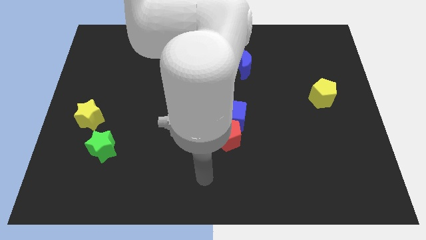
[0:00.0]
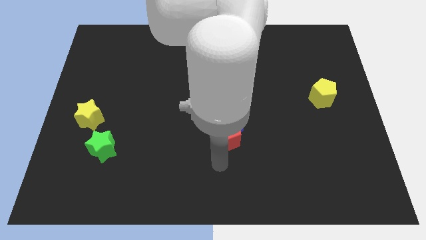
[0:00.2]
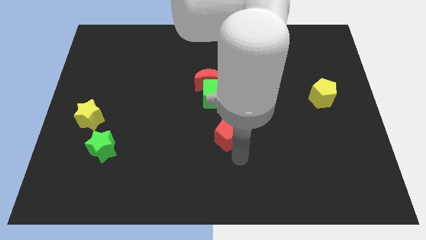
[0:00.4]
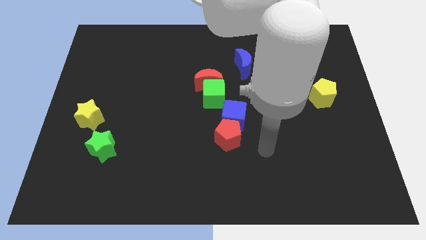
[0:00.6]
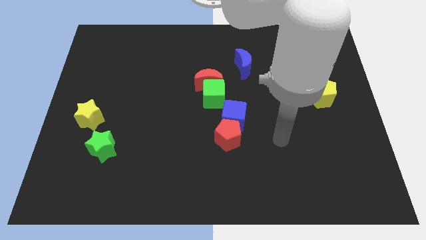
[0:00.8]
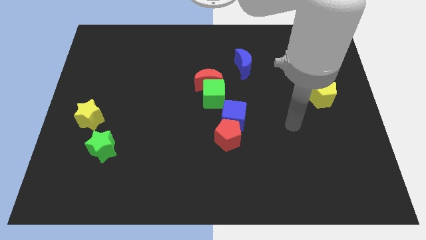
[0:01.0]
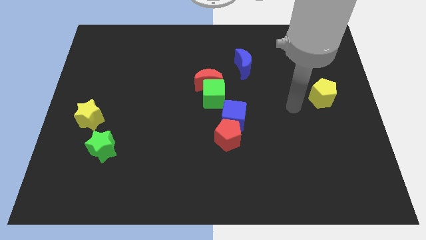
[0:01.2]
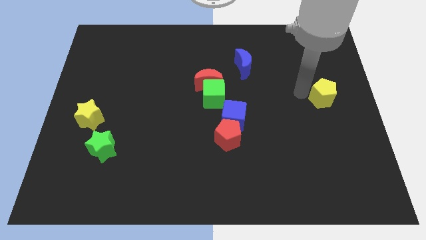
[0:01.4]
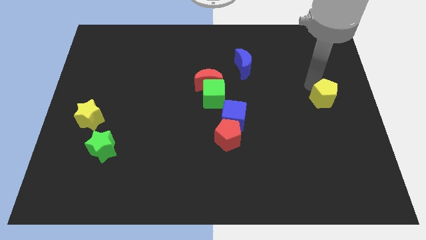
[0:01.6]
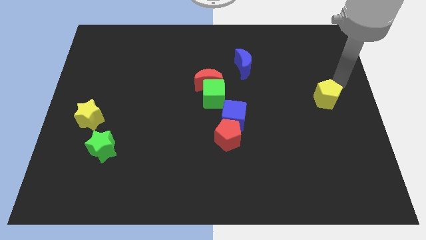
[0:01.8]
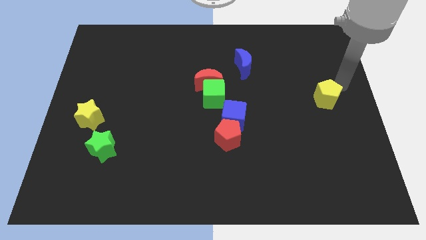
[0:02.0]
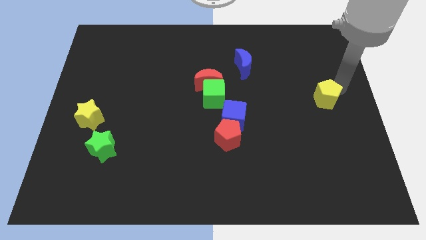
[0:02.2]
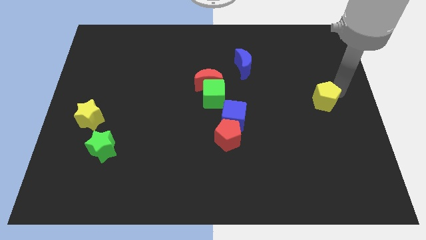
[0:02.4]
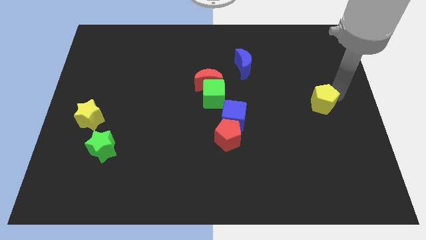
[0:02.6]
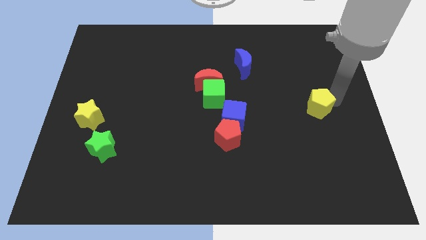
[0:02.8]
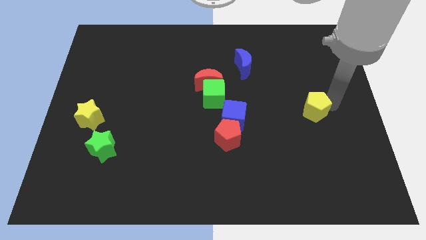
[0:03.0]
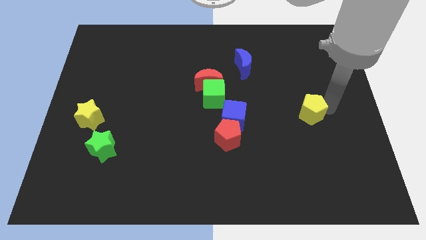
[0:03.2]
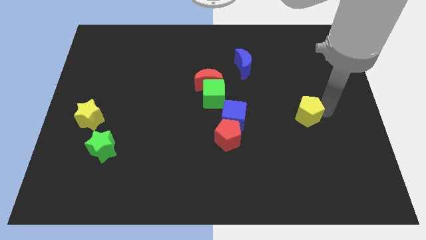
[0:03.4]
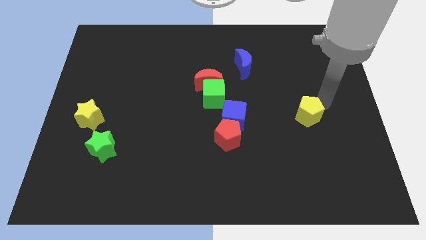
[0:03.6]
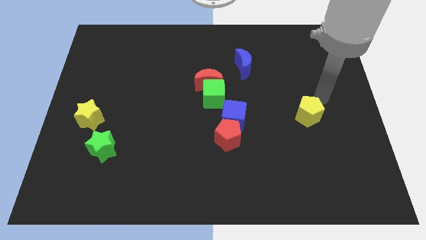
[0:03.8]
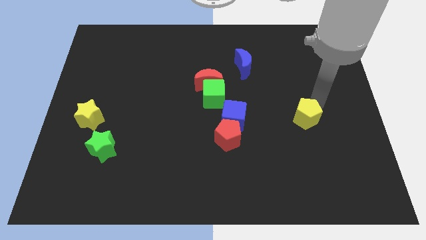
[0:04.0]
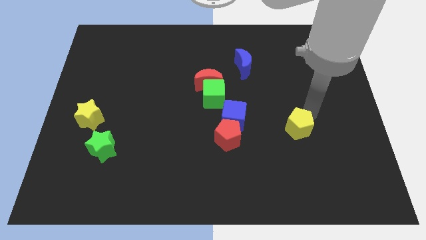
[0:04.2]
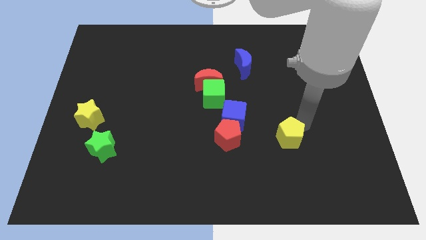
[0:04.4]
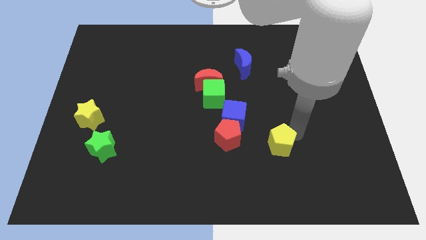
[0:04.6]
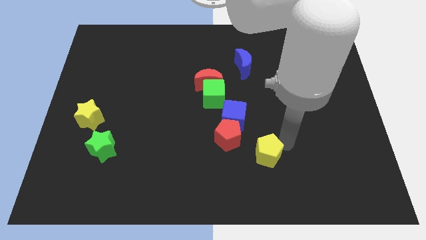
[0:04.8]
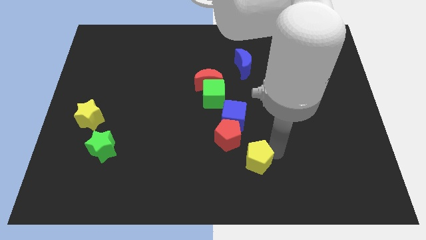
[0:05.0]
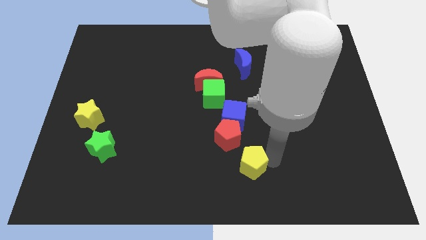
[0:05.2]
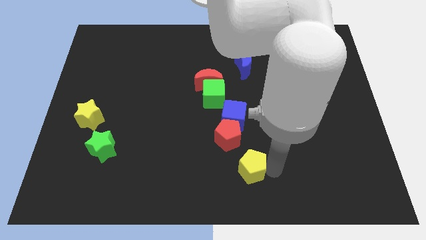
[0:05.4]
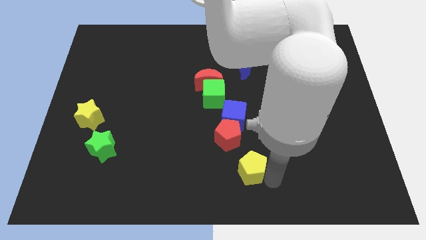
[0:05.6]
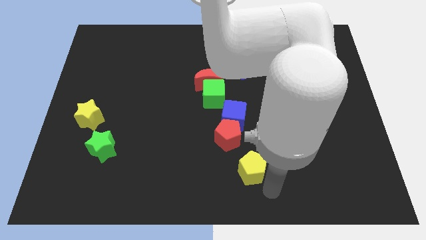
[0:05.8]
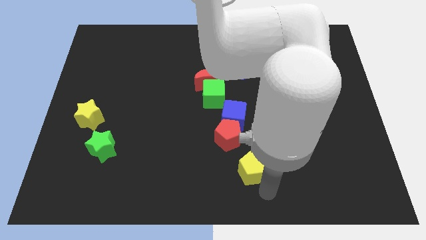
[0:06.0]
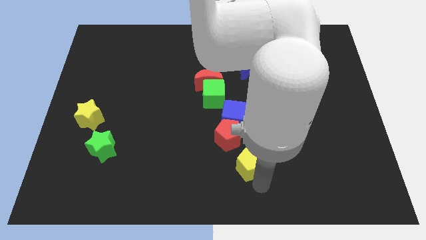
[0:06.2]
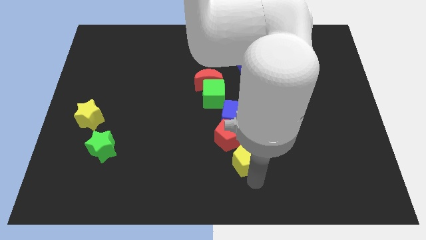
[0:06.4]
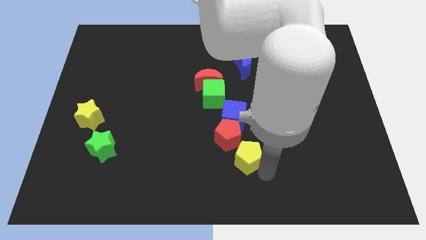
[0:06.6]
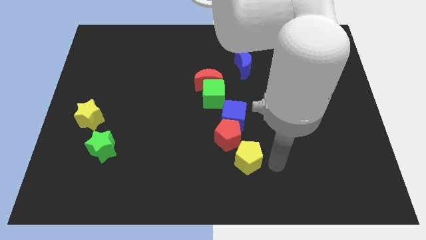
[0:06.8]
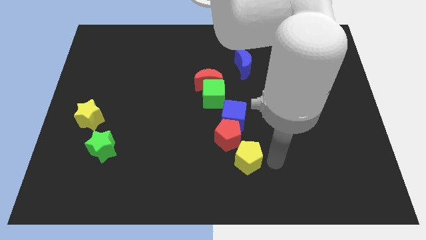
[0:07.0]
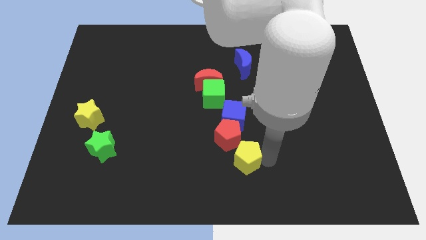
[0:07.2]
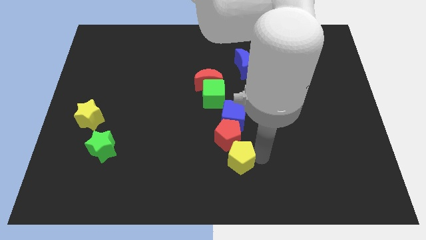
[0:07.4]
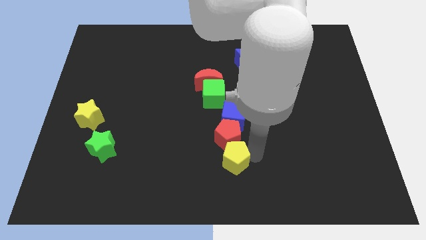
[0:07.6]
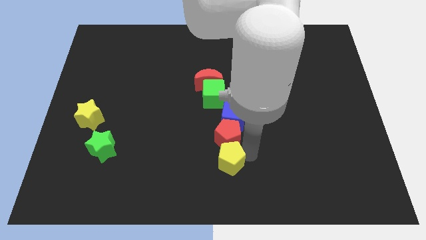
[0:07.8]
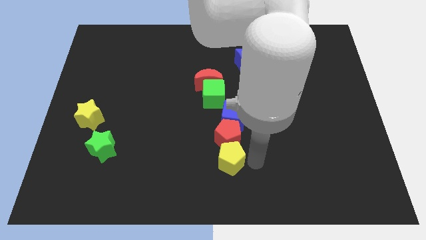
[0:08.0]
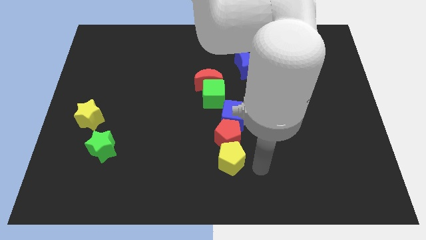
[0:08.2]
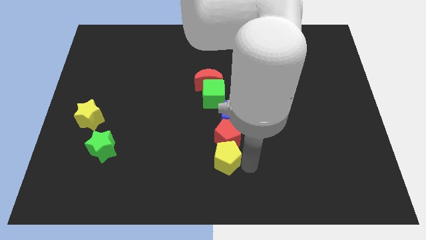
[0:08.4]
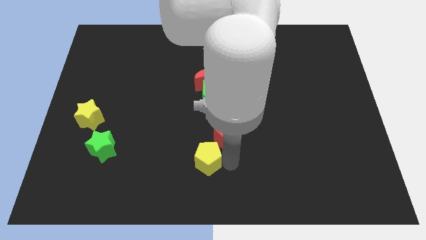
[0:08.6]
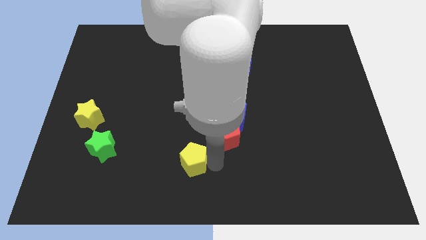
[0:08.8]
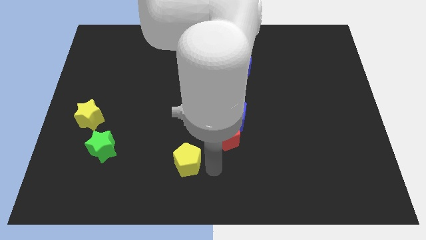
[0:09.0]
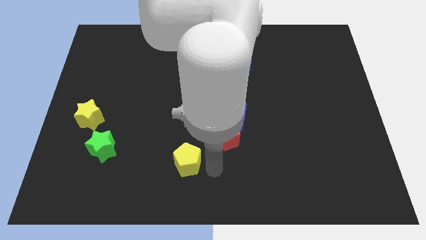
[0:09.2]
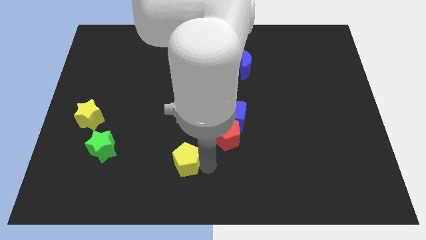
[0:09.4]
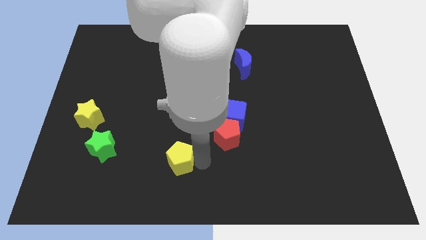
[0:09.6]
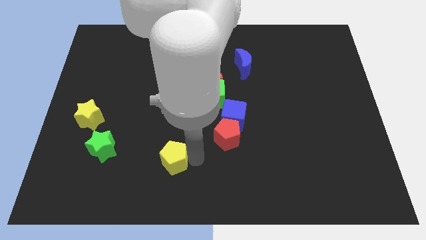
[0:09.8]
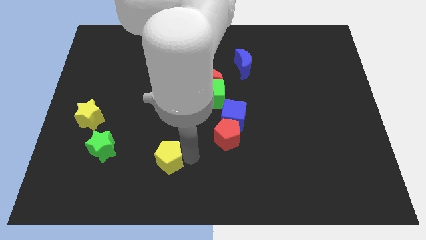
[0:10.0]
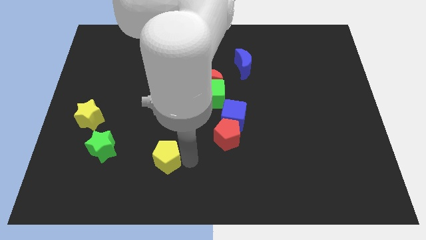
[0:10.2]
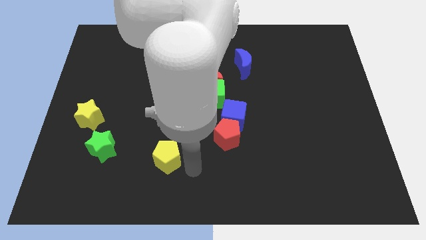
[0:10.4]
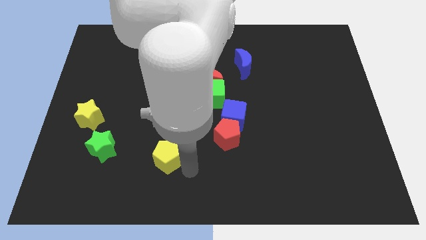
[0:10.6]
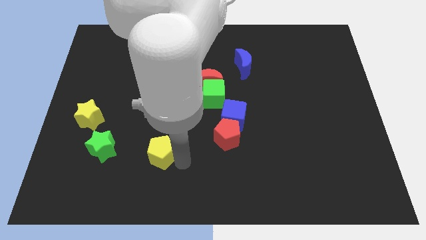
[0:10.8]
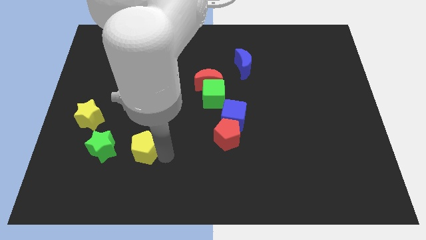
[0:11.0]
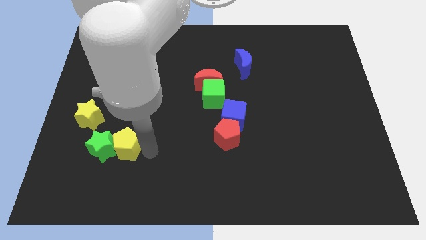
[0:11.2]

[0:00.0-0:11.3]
push the yellow pentagon close to the green star

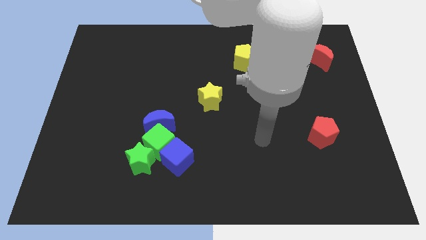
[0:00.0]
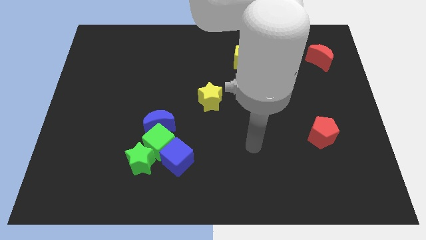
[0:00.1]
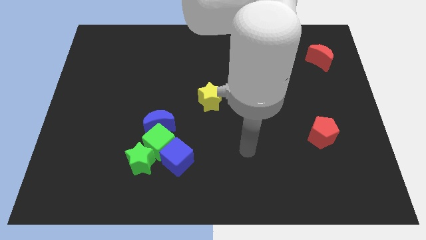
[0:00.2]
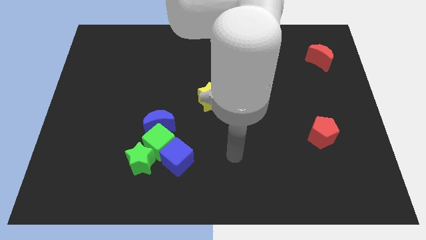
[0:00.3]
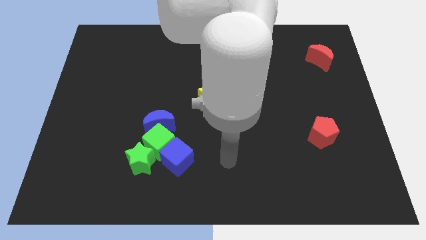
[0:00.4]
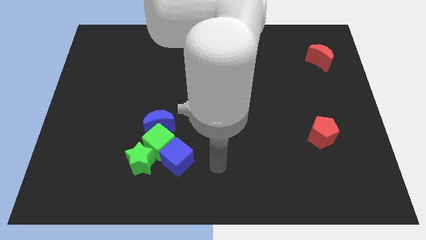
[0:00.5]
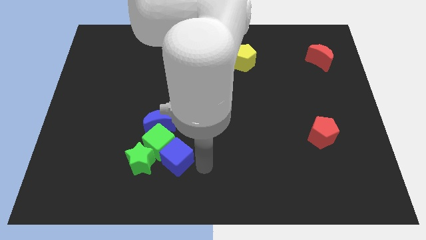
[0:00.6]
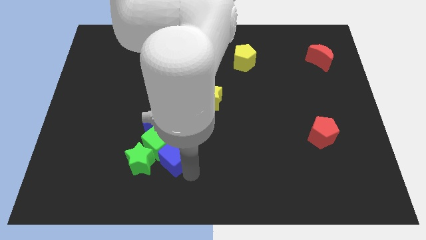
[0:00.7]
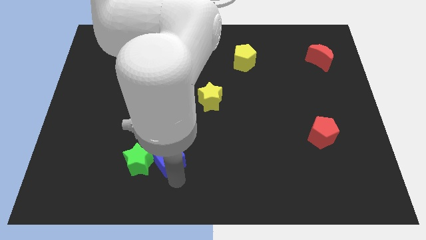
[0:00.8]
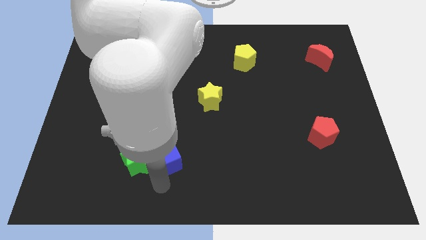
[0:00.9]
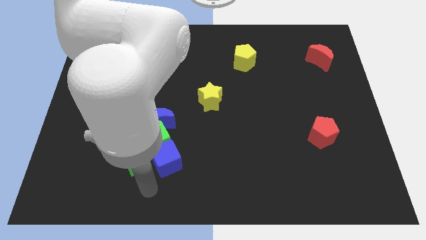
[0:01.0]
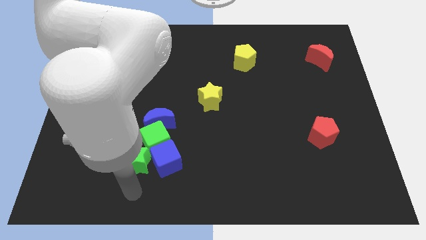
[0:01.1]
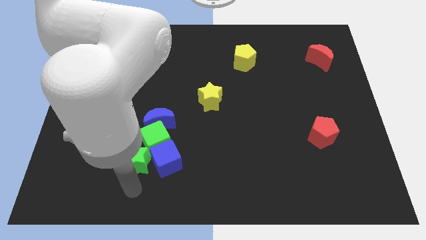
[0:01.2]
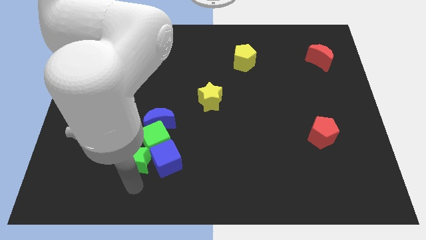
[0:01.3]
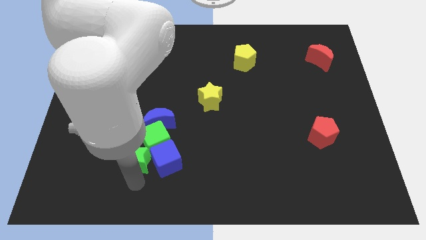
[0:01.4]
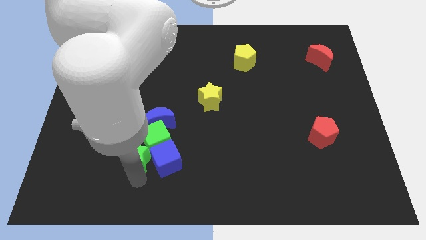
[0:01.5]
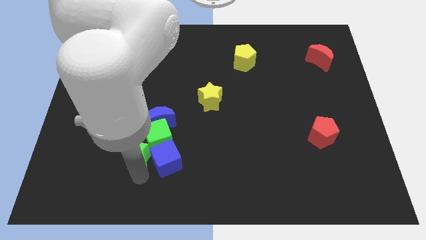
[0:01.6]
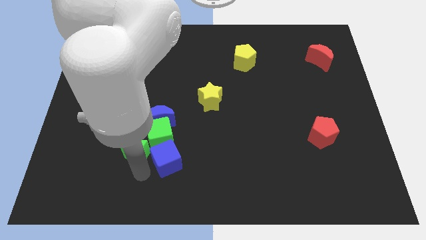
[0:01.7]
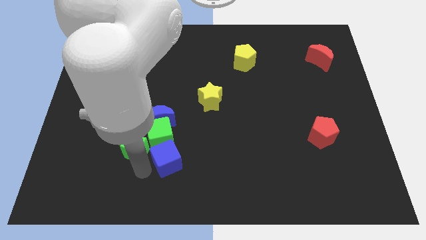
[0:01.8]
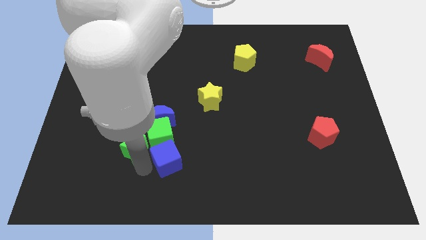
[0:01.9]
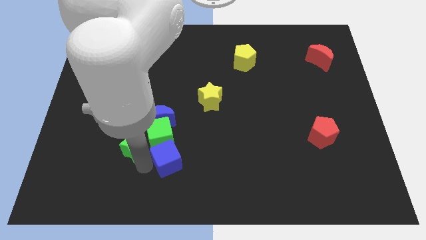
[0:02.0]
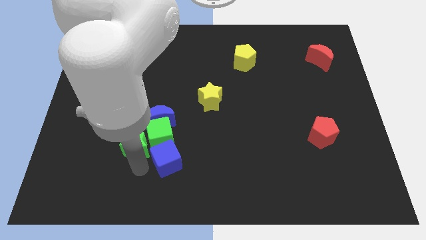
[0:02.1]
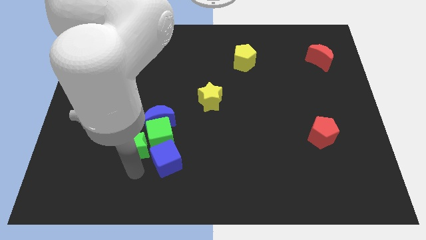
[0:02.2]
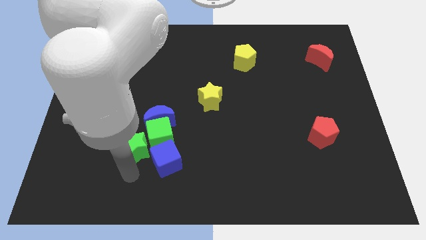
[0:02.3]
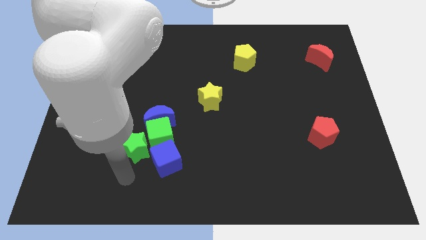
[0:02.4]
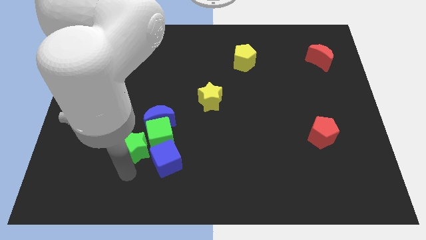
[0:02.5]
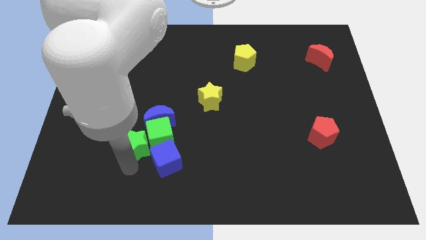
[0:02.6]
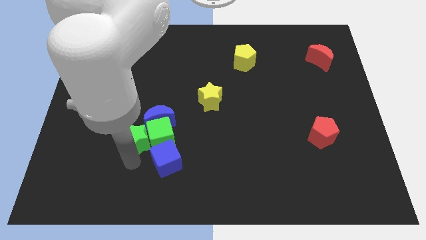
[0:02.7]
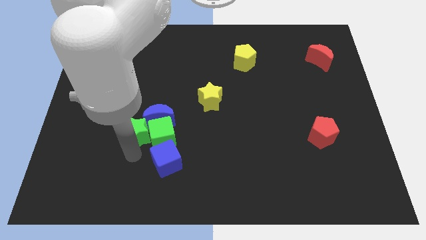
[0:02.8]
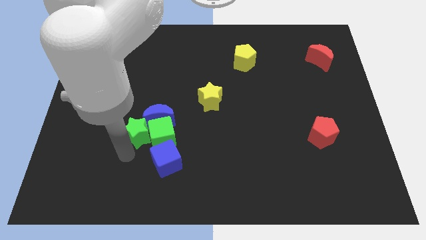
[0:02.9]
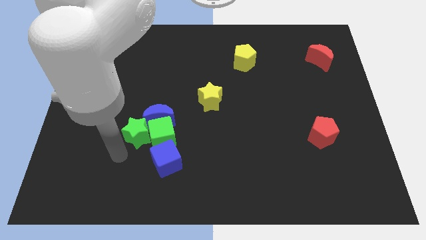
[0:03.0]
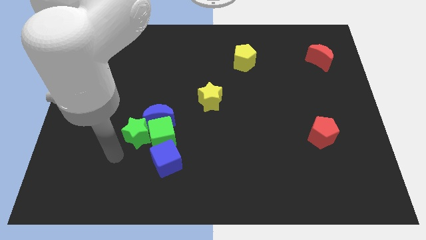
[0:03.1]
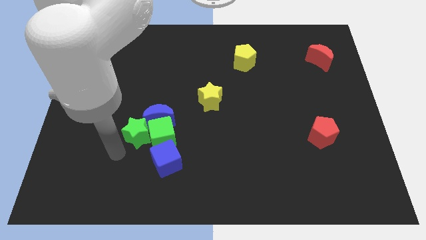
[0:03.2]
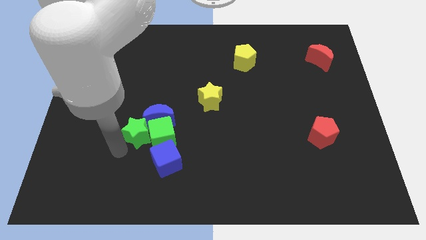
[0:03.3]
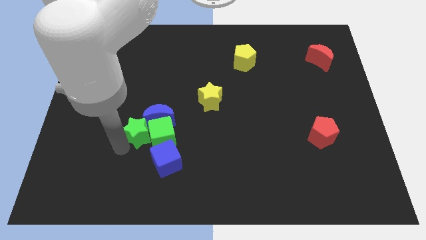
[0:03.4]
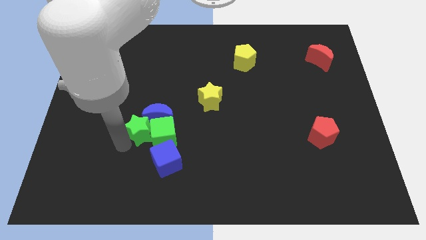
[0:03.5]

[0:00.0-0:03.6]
slide the green star next to the blue moon
